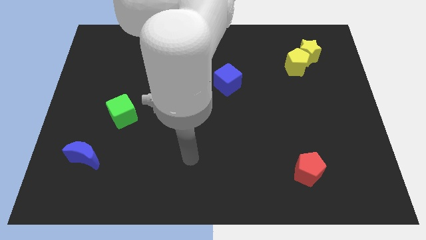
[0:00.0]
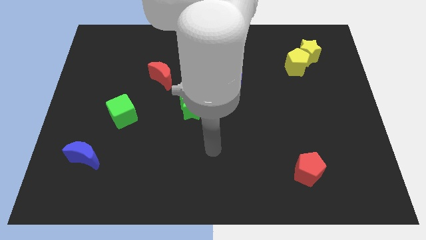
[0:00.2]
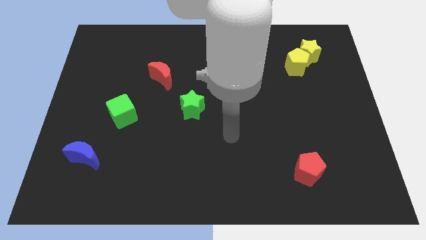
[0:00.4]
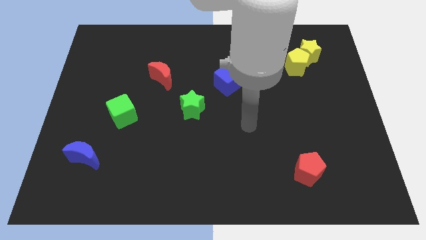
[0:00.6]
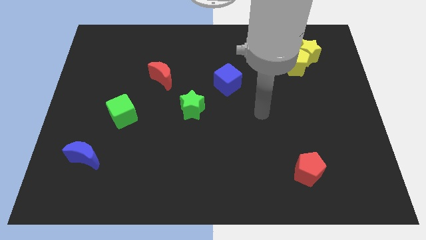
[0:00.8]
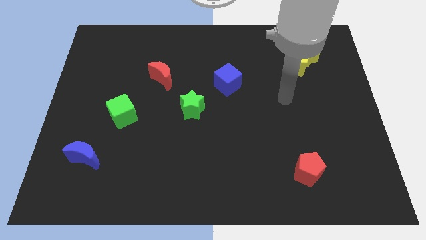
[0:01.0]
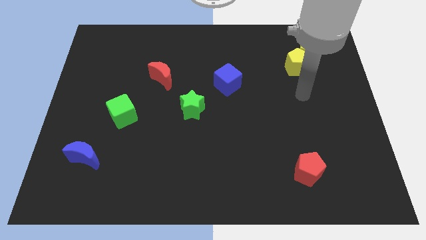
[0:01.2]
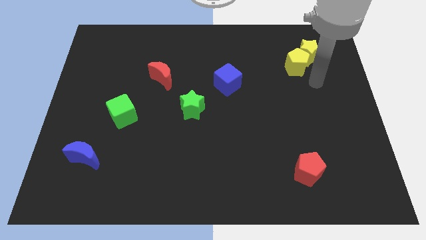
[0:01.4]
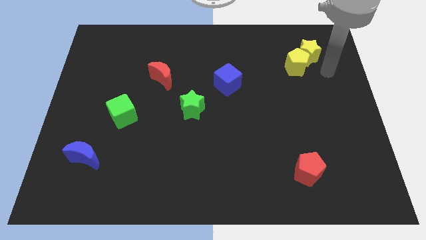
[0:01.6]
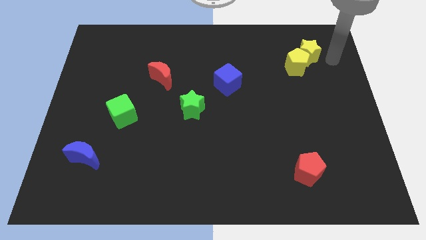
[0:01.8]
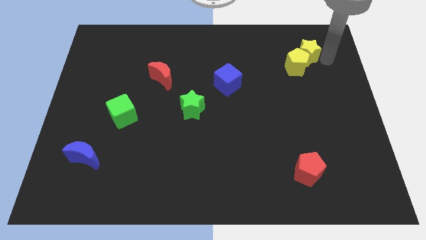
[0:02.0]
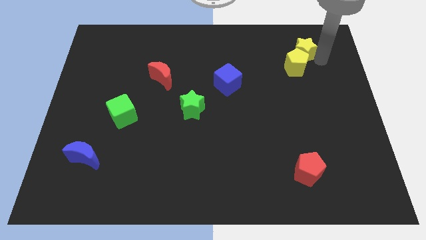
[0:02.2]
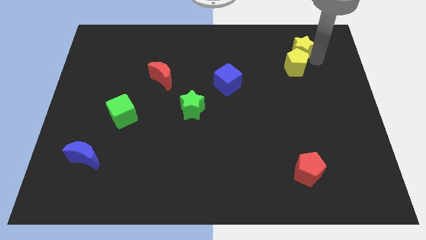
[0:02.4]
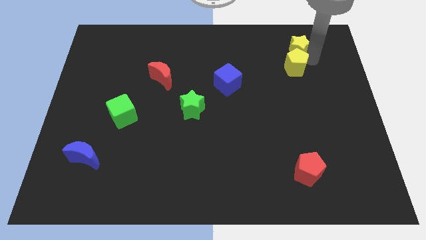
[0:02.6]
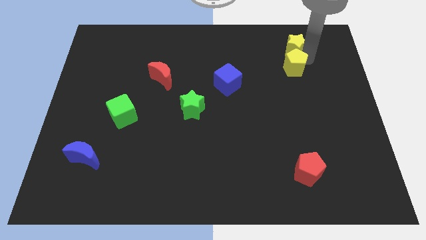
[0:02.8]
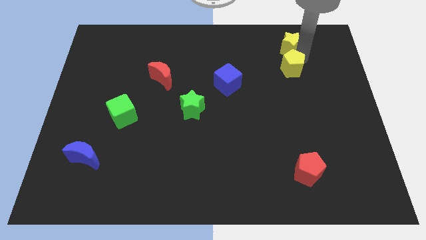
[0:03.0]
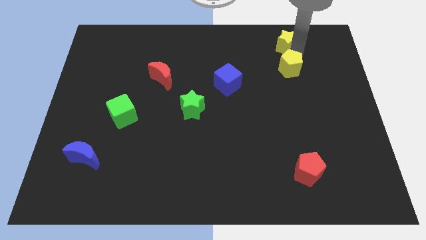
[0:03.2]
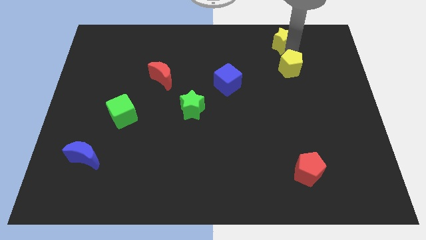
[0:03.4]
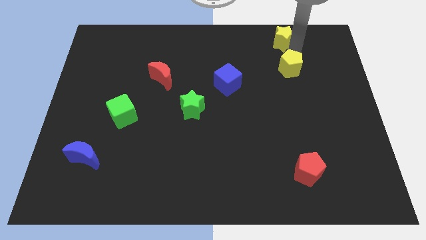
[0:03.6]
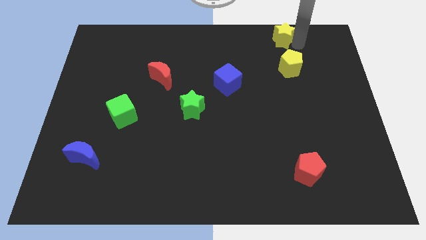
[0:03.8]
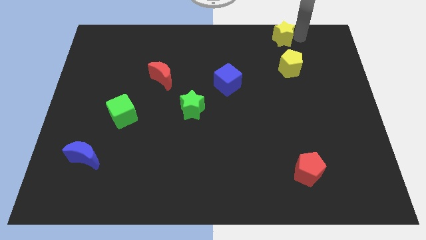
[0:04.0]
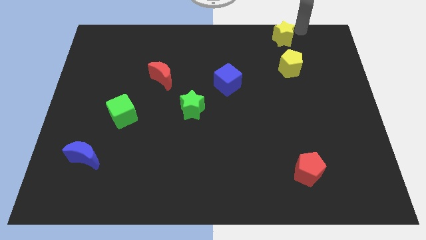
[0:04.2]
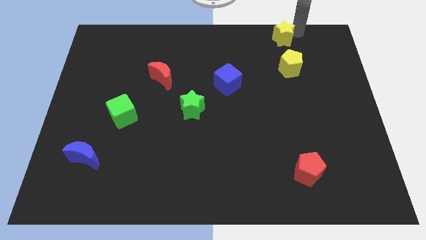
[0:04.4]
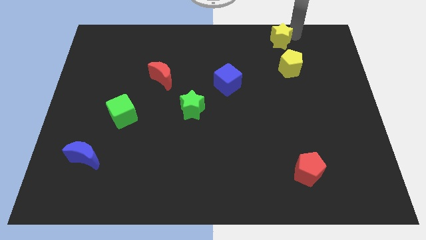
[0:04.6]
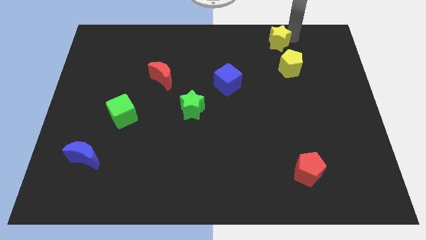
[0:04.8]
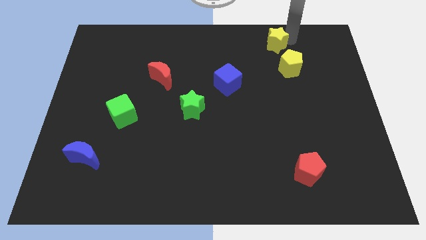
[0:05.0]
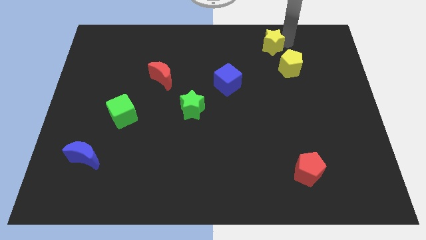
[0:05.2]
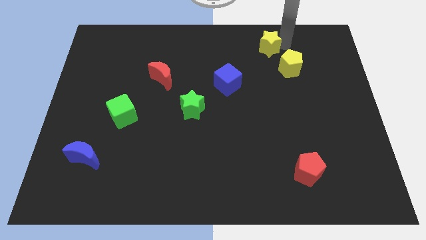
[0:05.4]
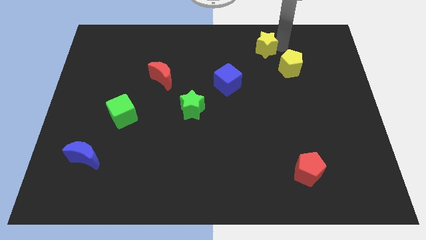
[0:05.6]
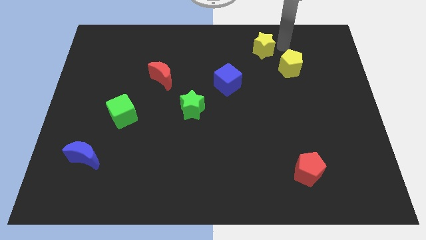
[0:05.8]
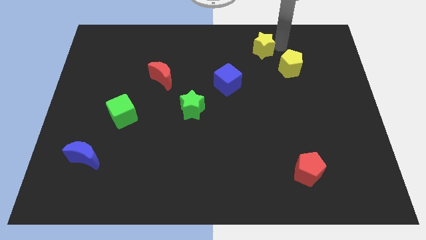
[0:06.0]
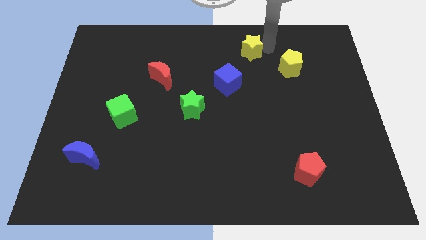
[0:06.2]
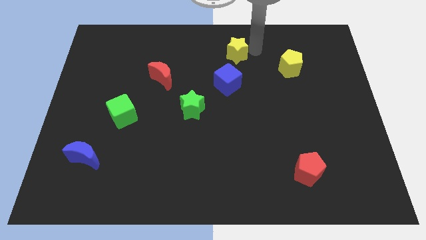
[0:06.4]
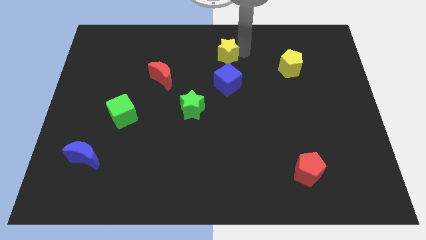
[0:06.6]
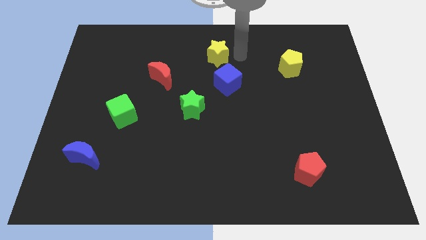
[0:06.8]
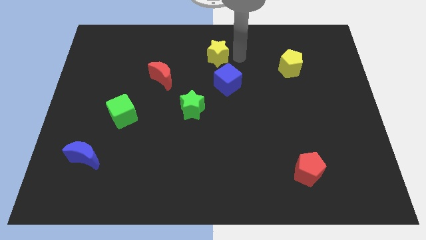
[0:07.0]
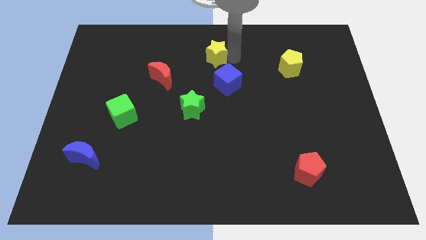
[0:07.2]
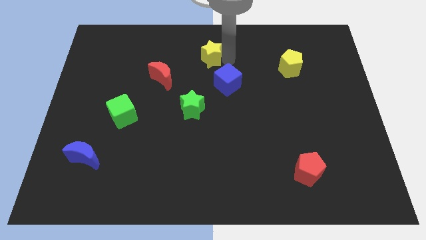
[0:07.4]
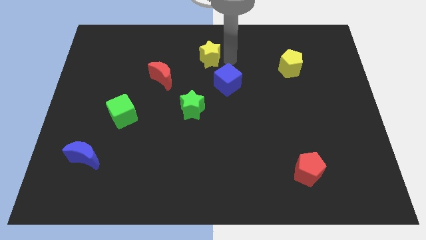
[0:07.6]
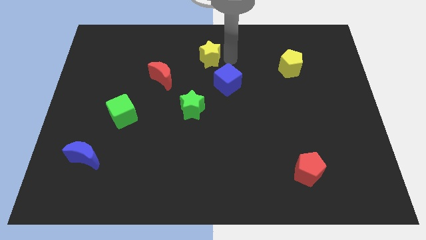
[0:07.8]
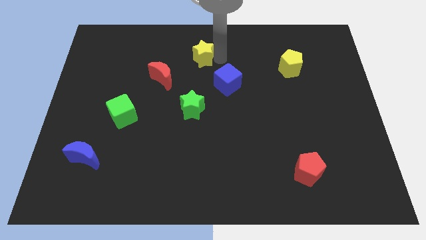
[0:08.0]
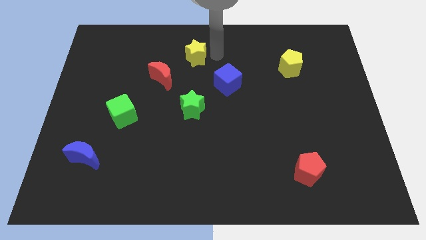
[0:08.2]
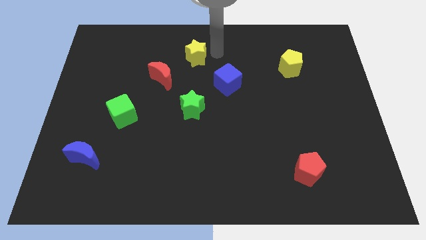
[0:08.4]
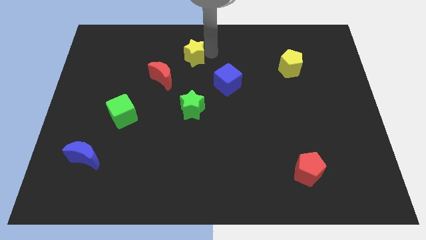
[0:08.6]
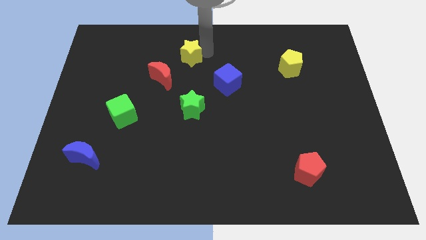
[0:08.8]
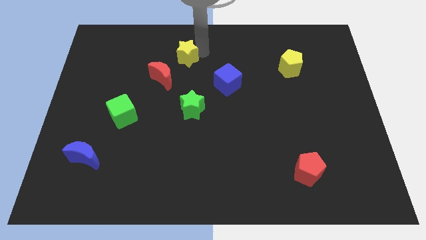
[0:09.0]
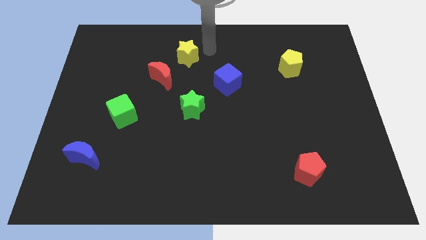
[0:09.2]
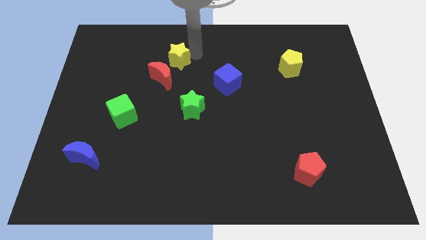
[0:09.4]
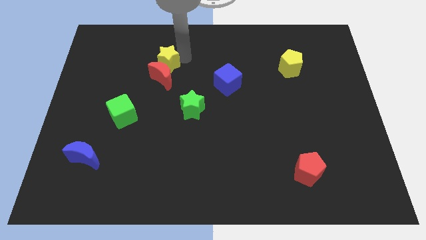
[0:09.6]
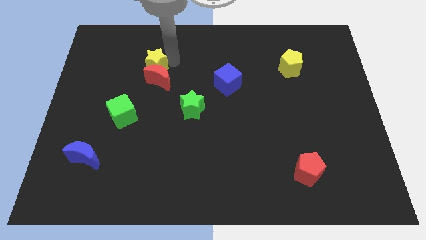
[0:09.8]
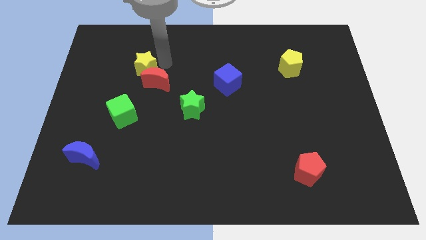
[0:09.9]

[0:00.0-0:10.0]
slide the yellow star to the left of the red moon

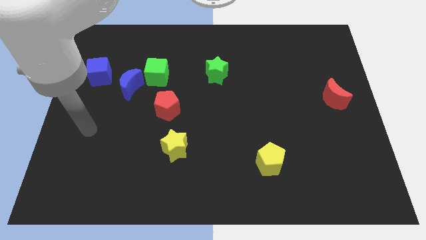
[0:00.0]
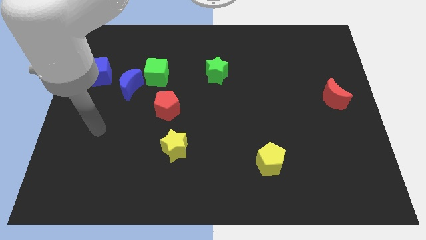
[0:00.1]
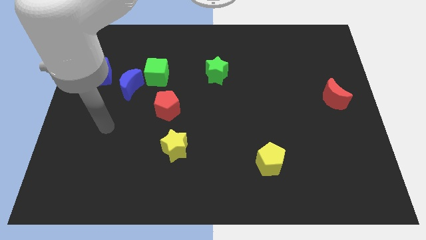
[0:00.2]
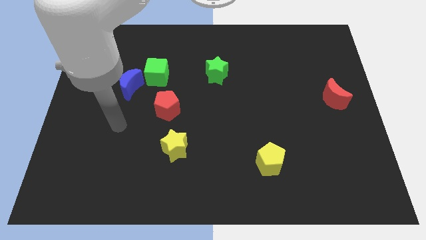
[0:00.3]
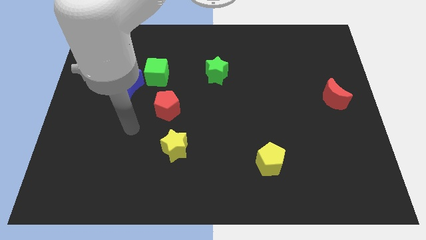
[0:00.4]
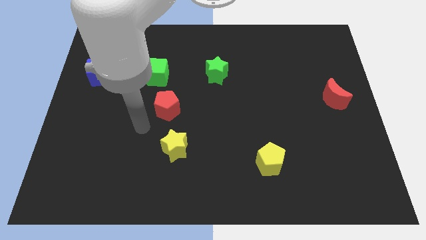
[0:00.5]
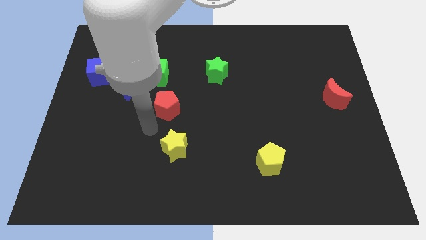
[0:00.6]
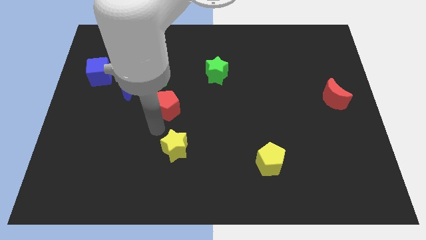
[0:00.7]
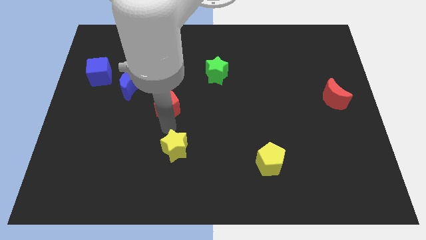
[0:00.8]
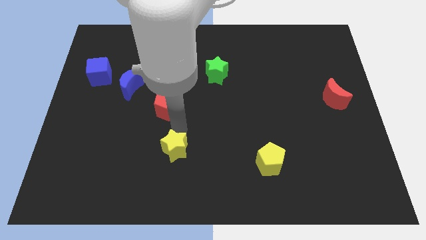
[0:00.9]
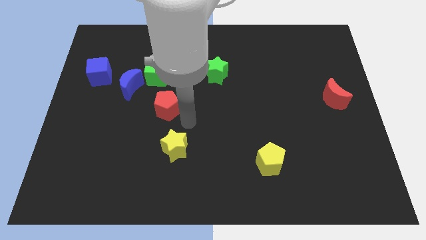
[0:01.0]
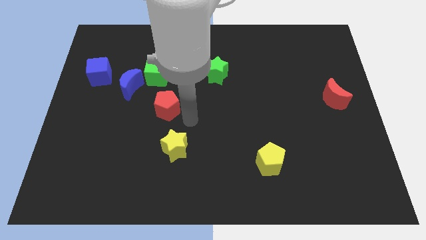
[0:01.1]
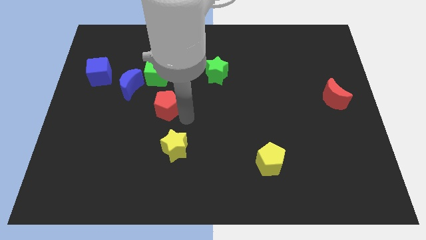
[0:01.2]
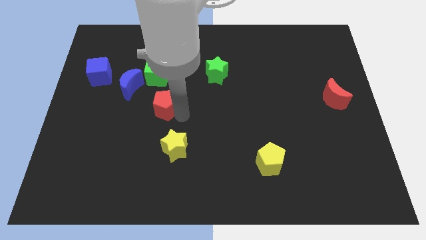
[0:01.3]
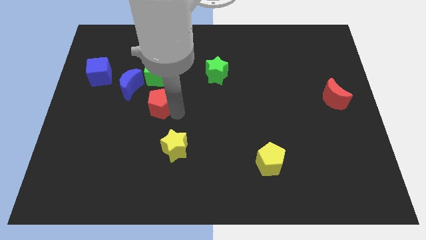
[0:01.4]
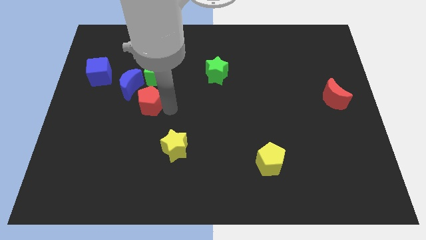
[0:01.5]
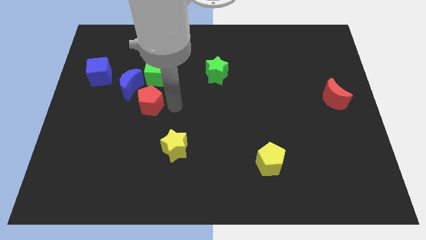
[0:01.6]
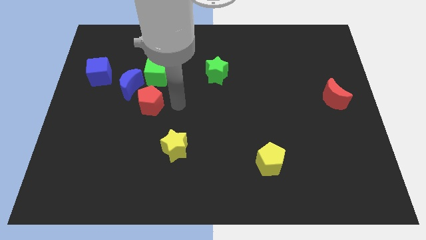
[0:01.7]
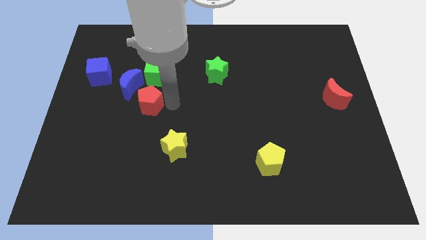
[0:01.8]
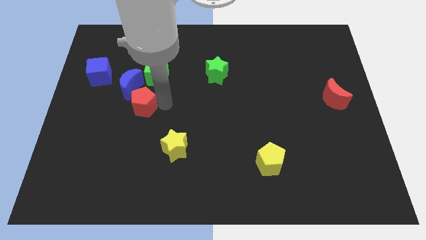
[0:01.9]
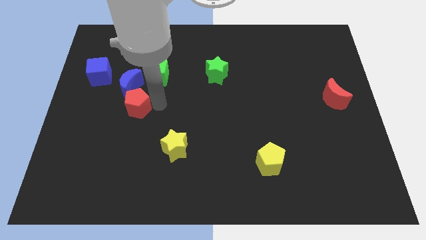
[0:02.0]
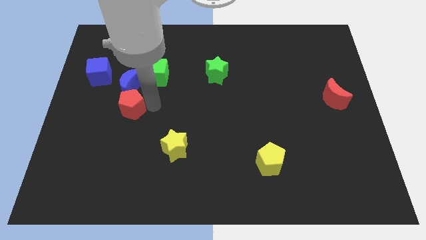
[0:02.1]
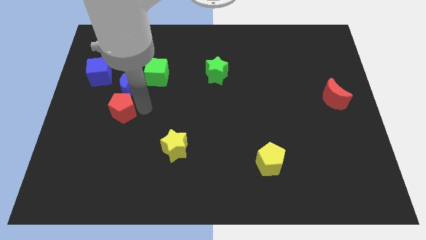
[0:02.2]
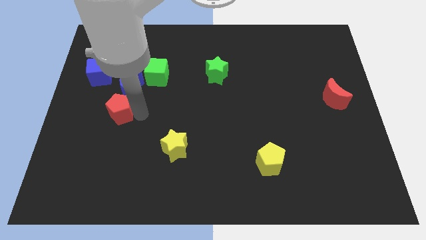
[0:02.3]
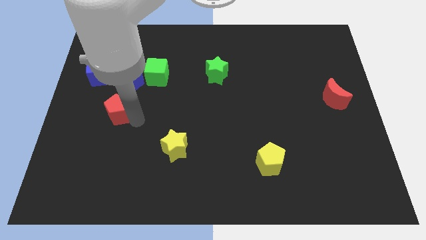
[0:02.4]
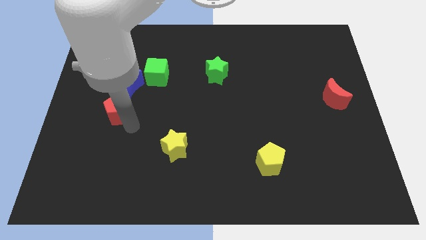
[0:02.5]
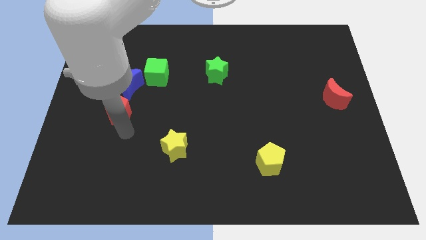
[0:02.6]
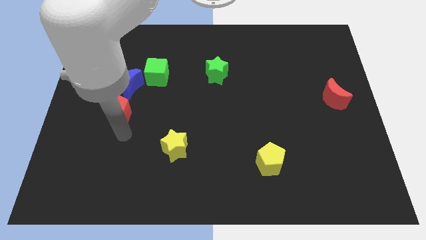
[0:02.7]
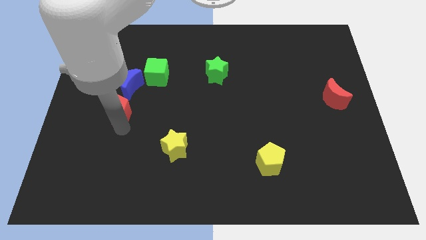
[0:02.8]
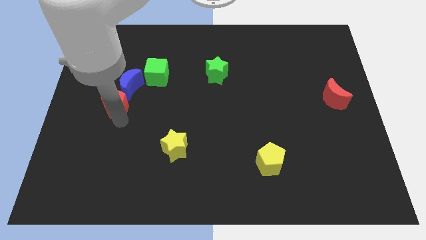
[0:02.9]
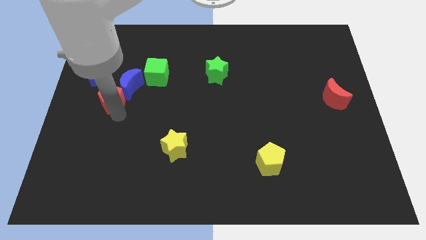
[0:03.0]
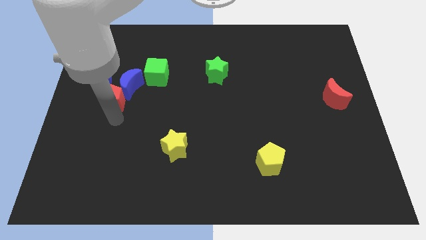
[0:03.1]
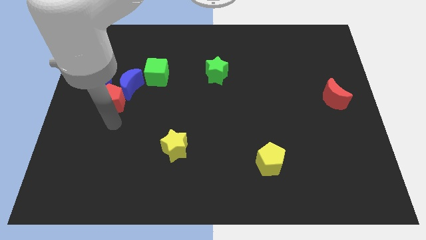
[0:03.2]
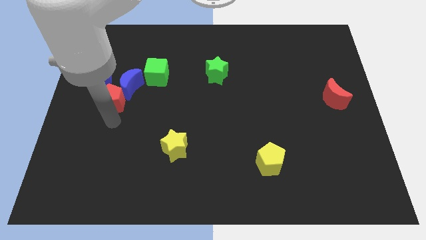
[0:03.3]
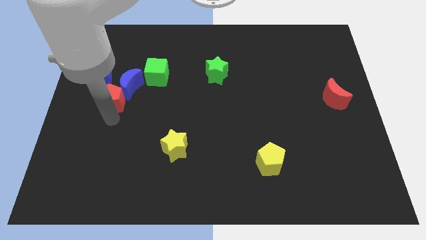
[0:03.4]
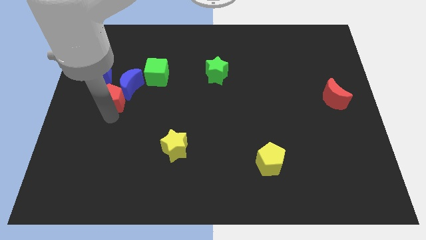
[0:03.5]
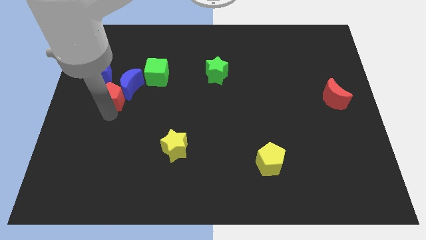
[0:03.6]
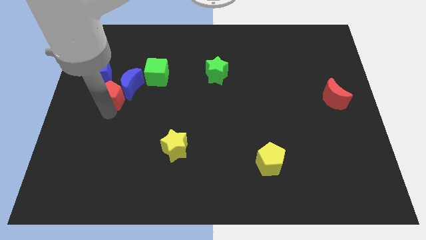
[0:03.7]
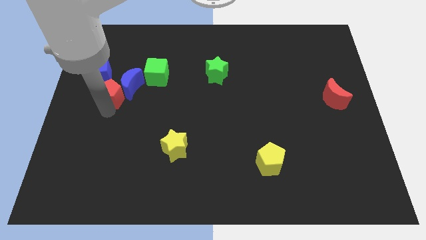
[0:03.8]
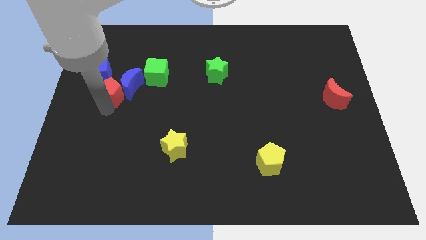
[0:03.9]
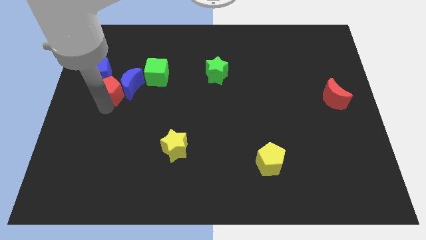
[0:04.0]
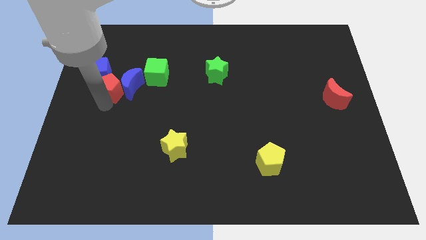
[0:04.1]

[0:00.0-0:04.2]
slide the red pentagon to the top left of the blue moon
